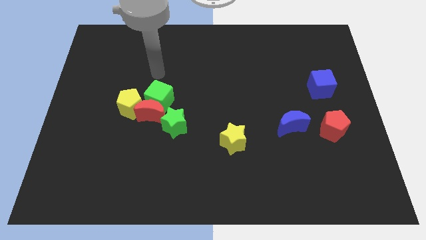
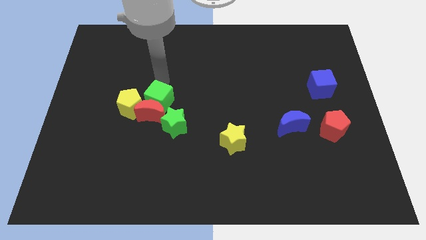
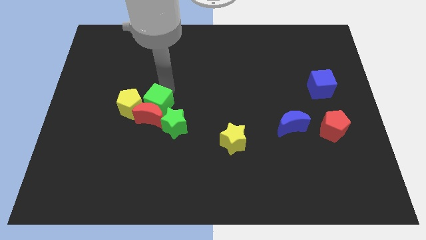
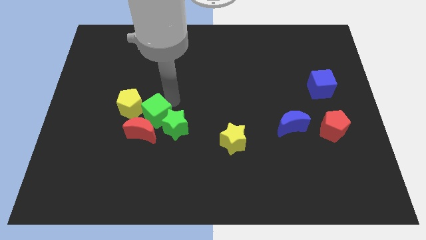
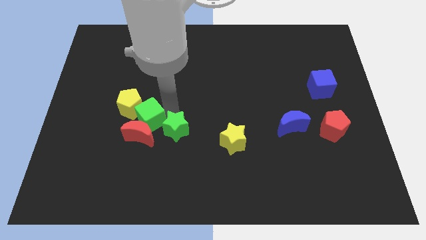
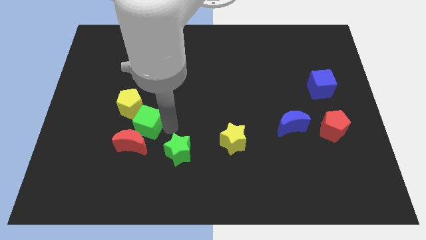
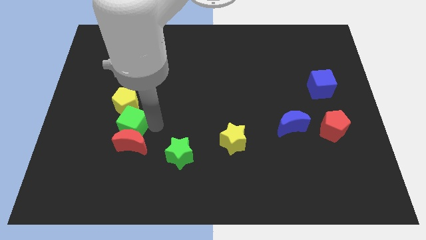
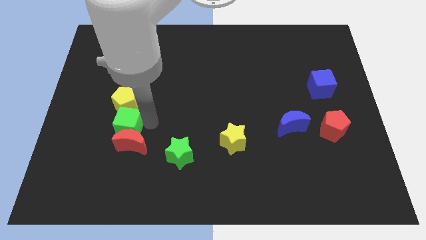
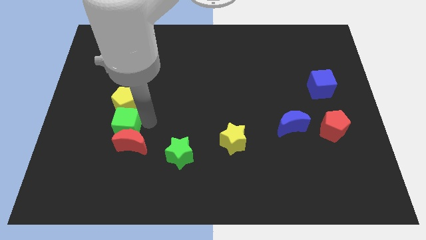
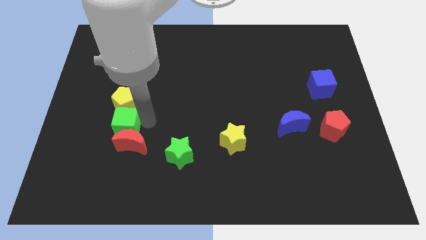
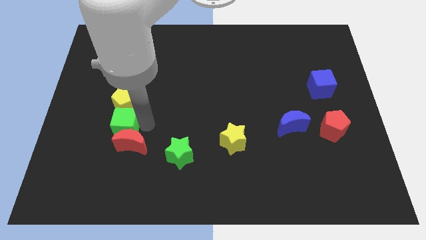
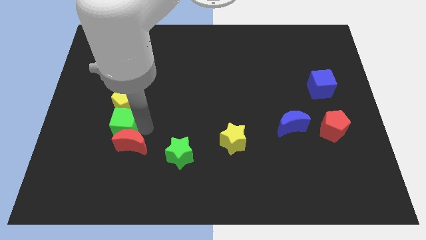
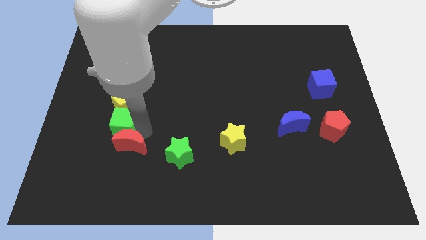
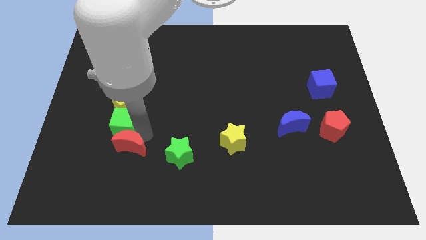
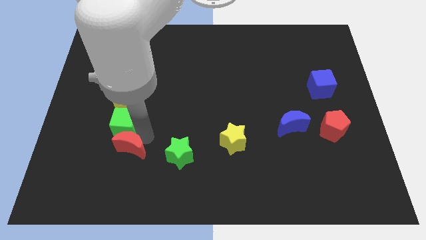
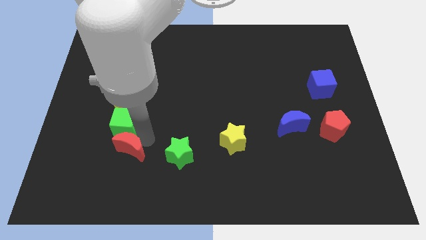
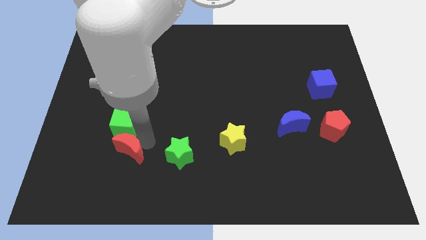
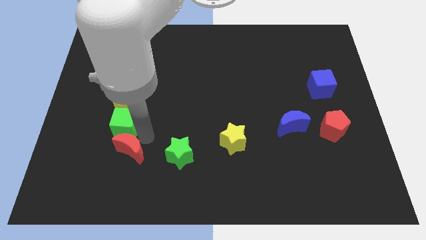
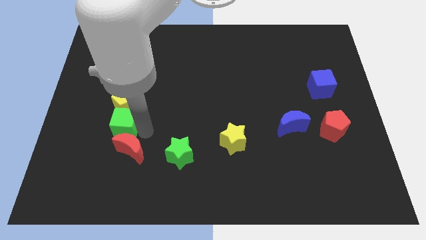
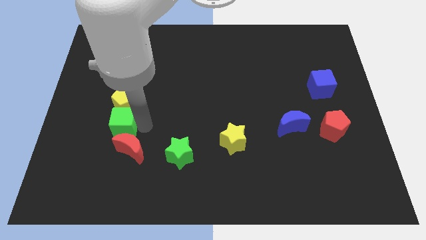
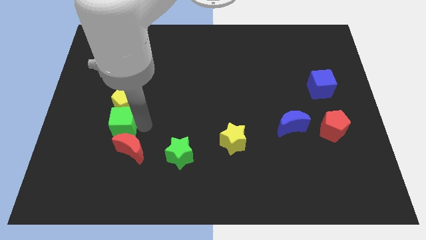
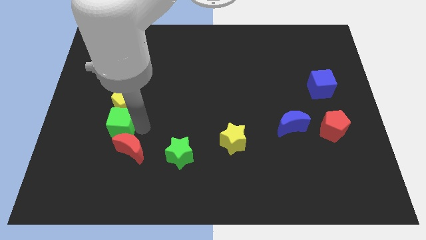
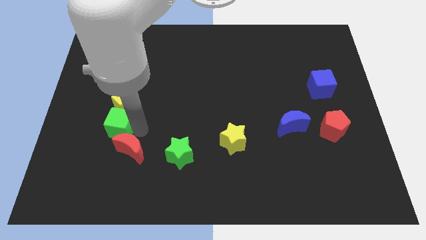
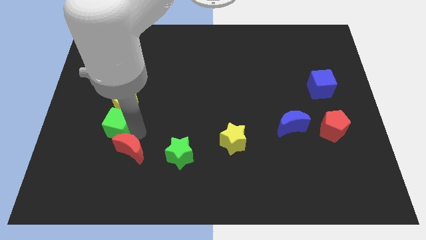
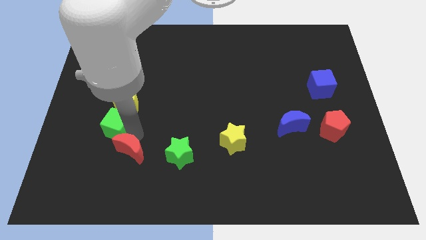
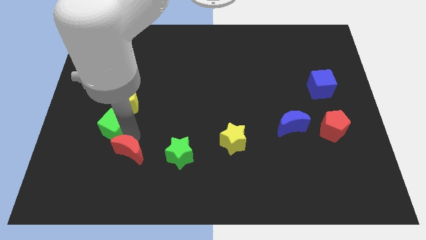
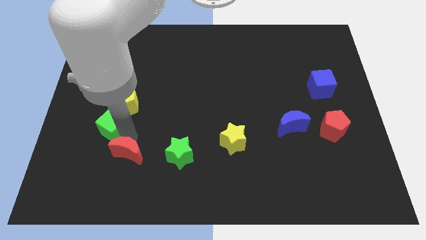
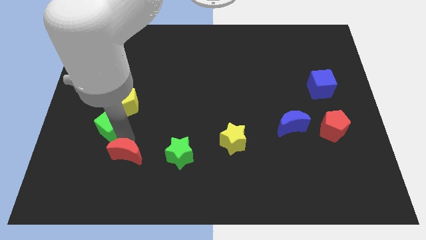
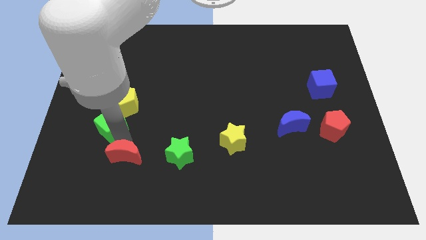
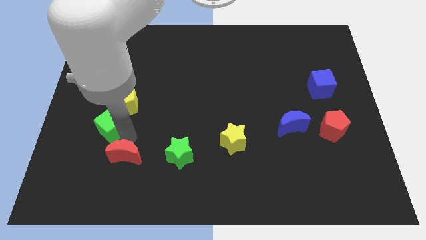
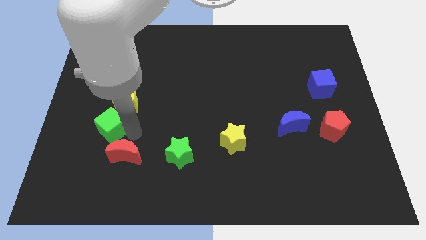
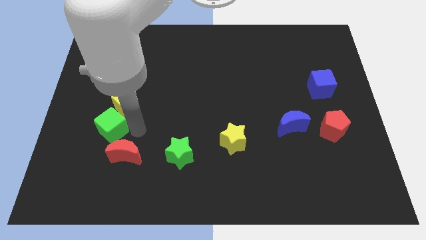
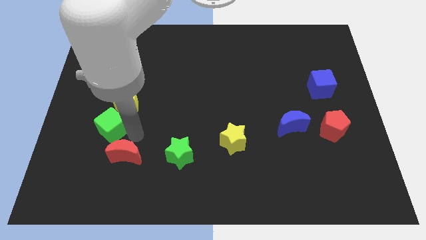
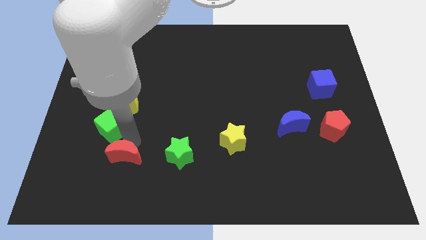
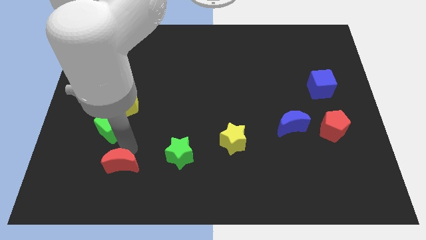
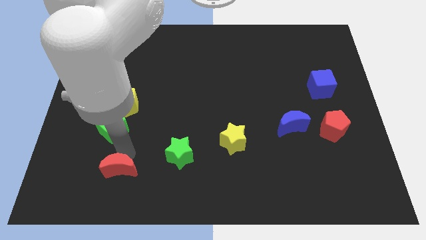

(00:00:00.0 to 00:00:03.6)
separate the red moon from the group of blocks

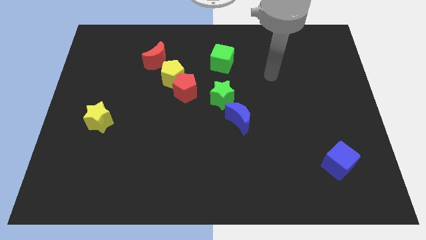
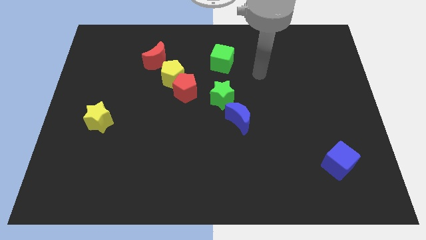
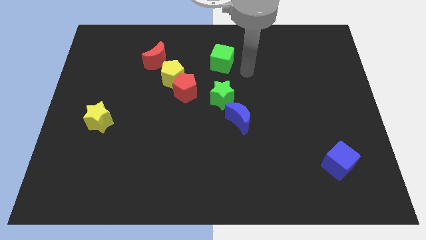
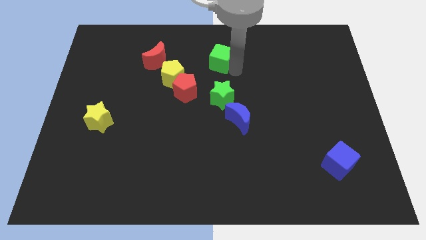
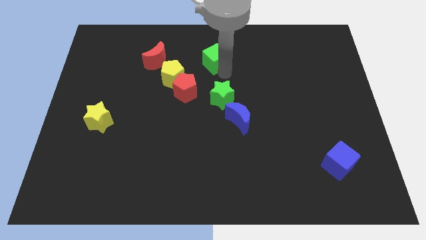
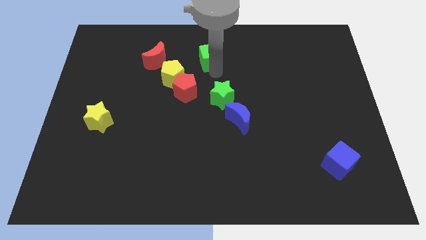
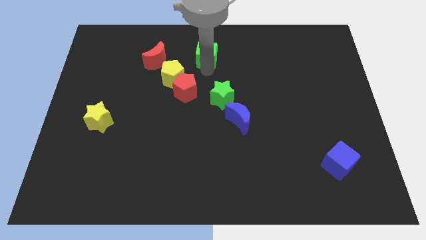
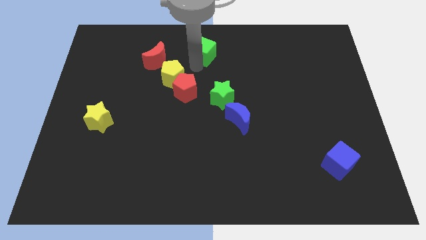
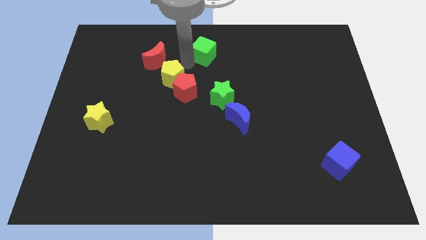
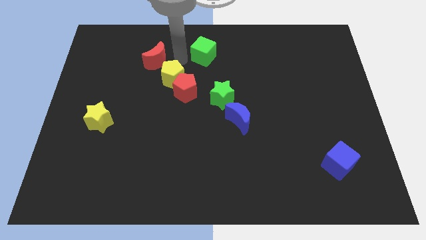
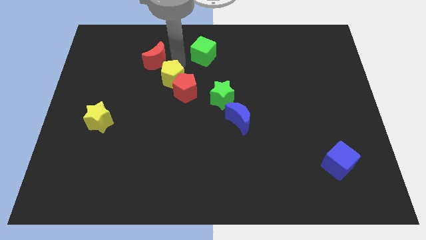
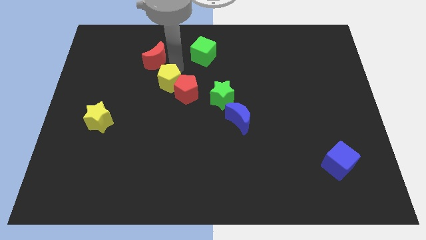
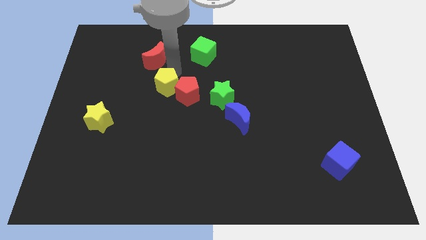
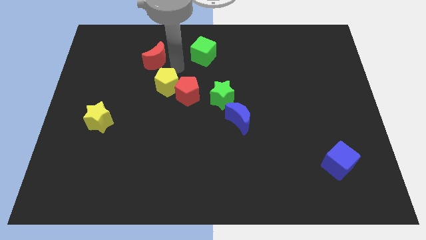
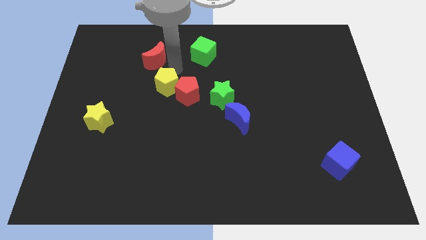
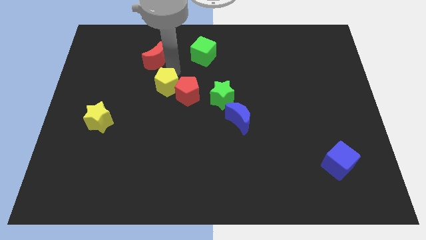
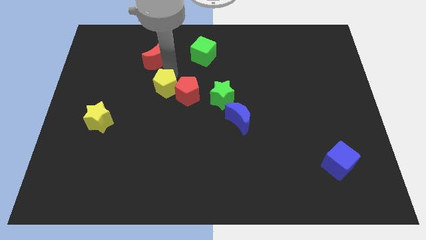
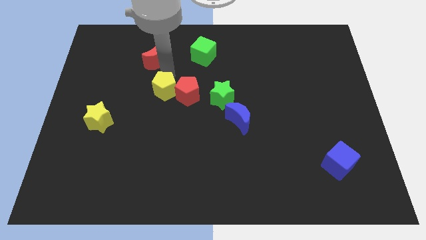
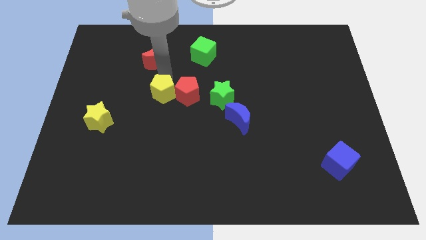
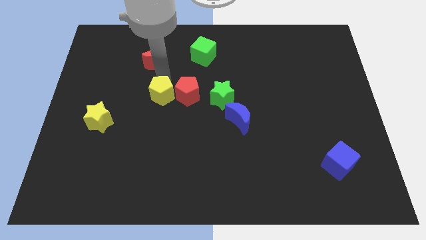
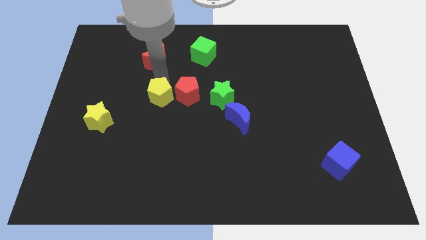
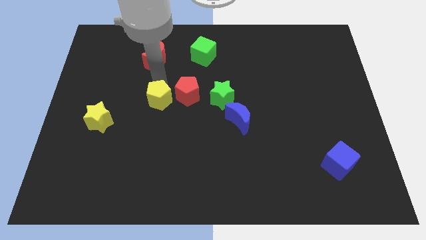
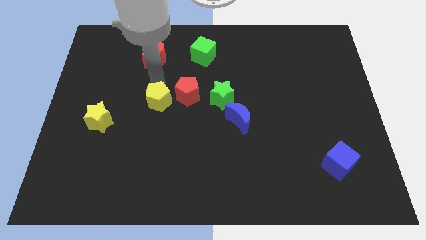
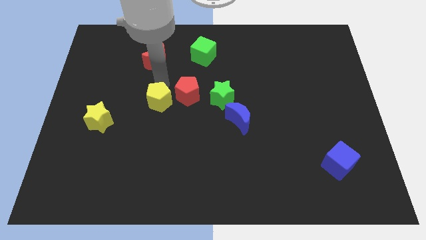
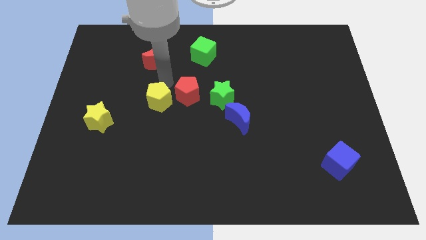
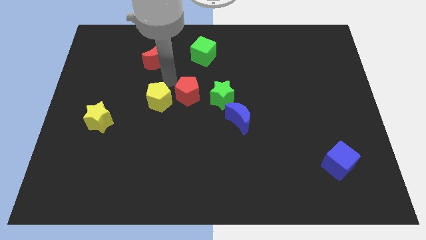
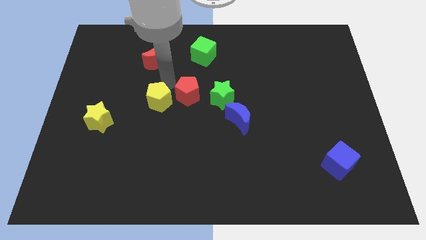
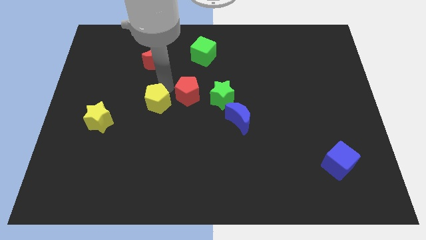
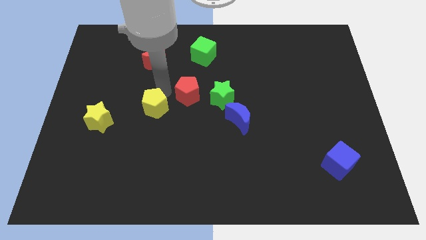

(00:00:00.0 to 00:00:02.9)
move the yellow pentagon away from the red pentagon and red moon

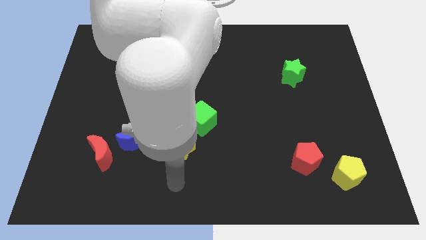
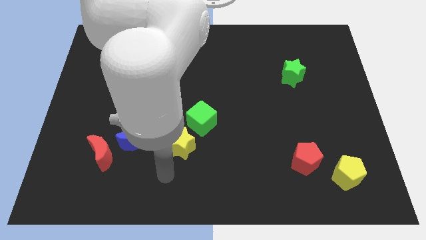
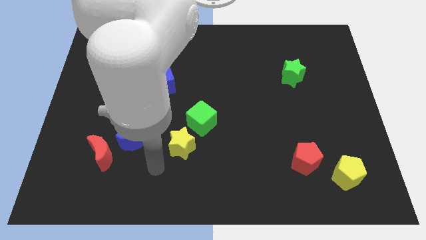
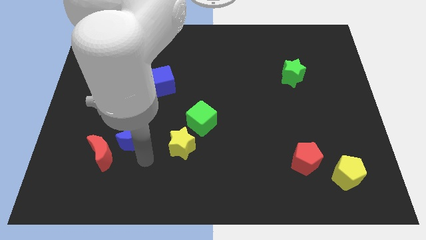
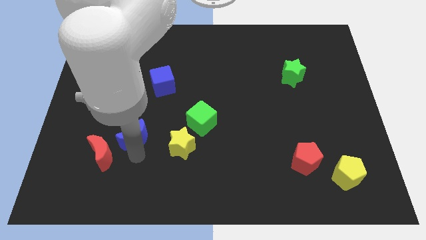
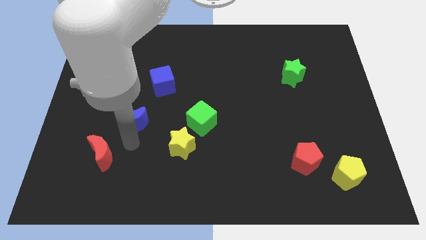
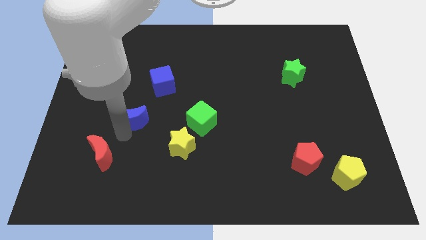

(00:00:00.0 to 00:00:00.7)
pull the red moon apart from the blue moon

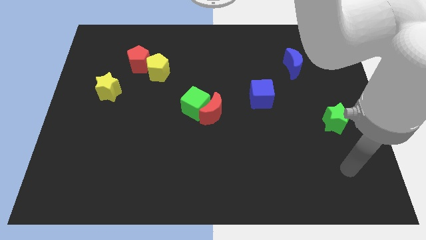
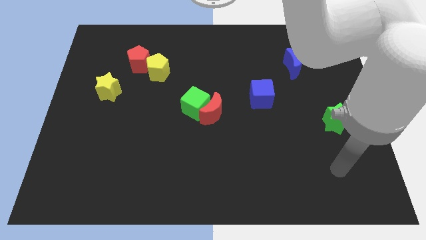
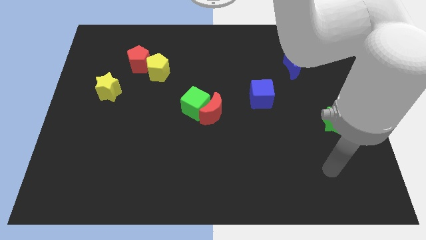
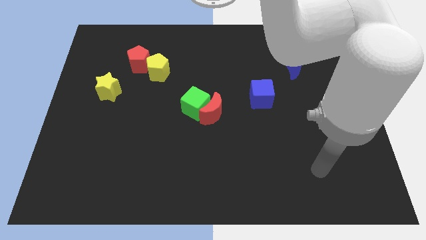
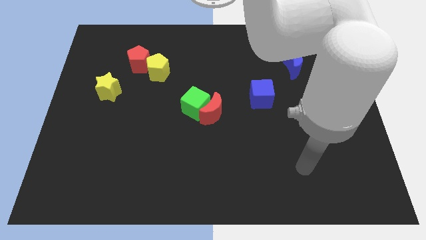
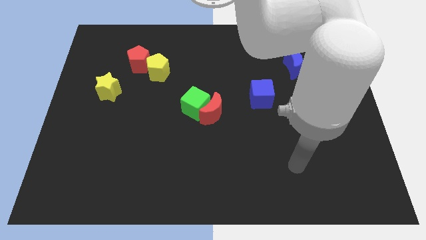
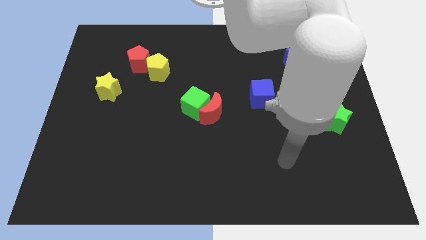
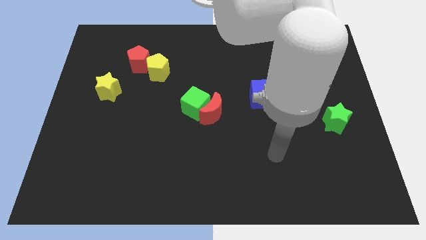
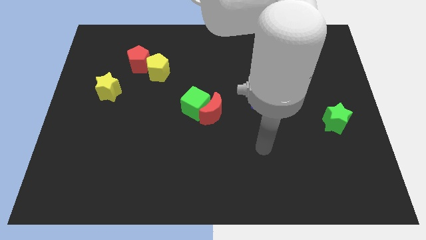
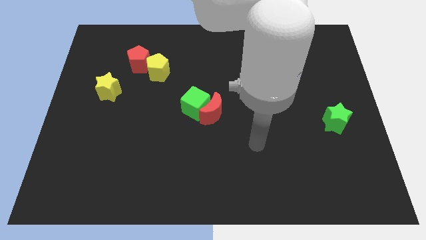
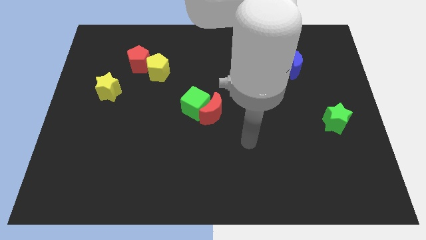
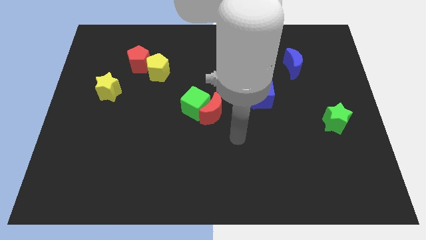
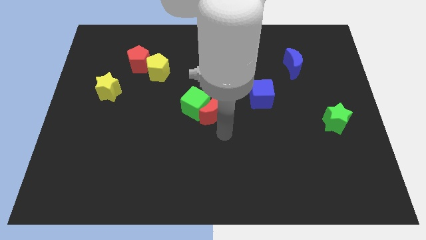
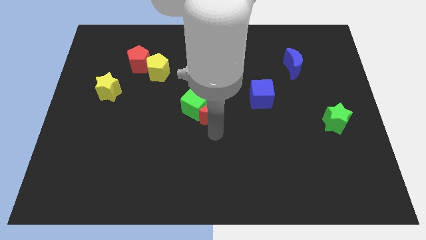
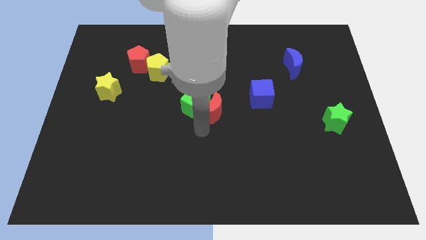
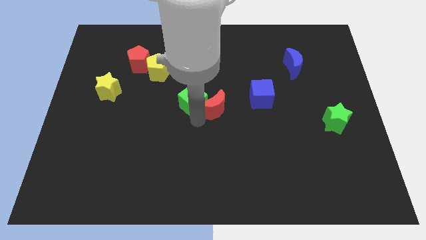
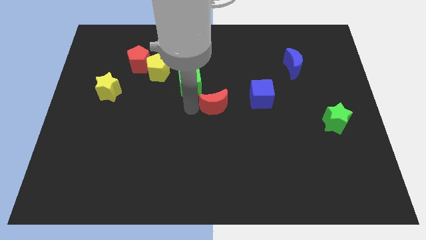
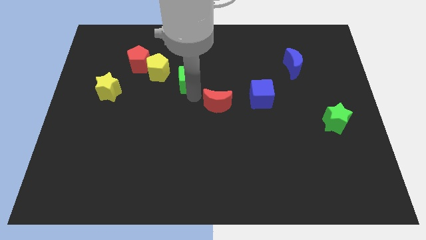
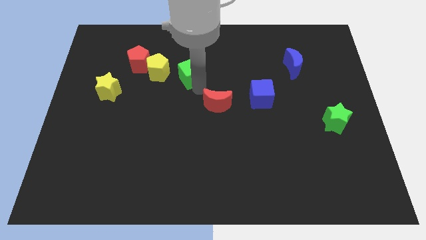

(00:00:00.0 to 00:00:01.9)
pull the red moon apart from the green cube

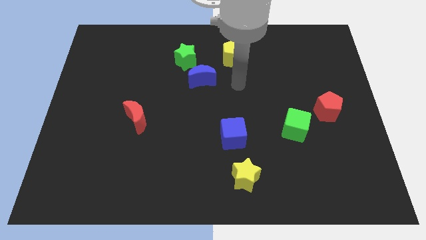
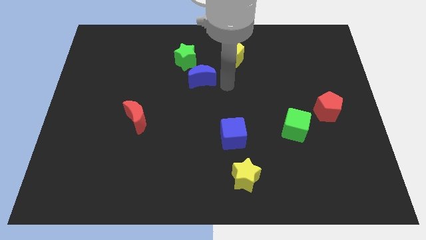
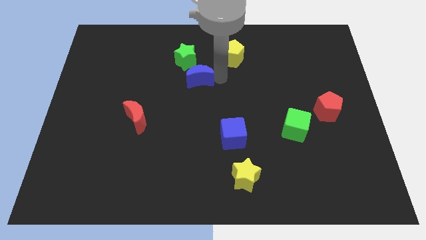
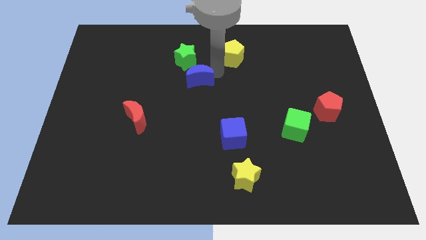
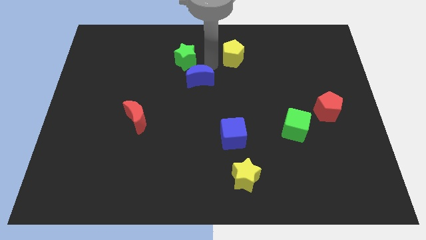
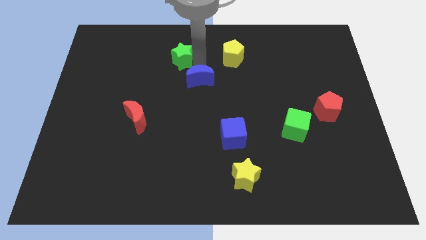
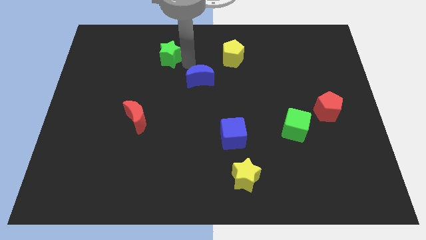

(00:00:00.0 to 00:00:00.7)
pull the blue moon apart from the green star
